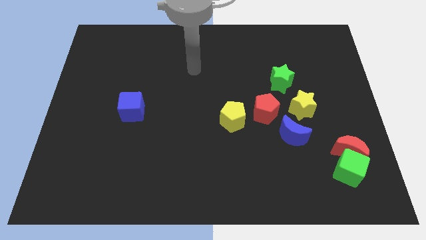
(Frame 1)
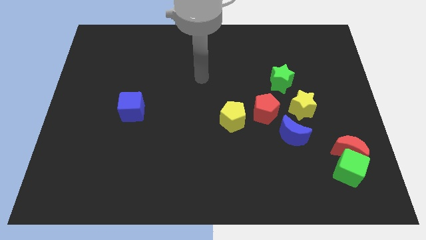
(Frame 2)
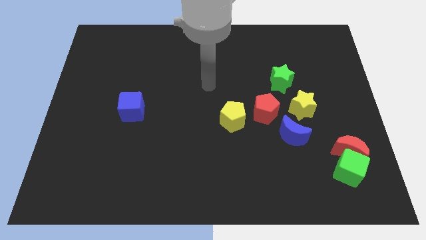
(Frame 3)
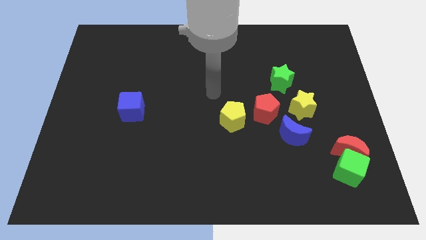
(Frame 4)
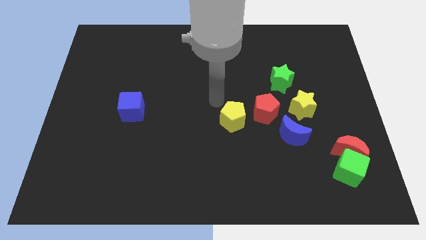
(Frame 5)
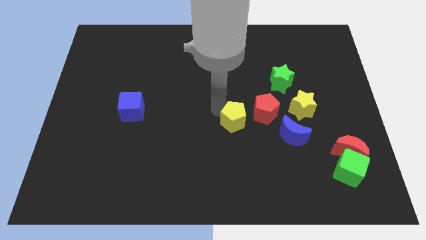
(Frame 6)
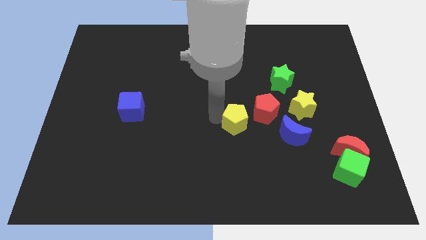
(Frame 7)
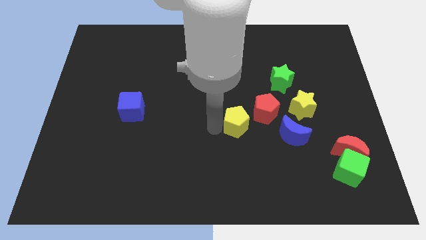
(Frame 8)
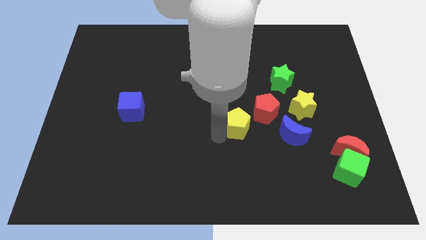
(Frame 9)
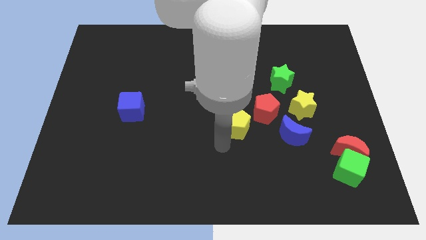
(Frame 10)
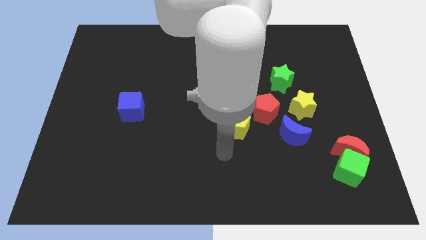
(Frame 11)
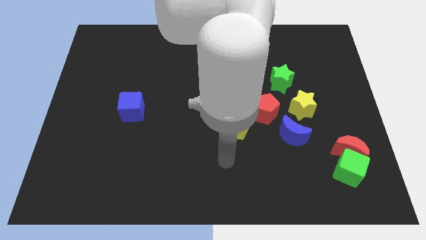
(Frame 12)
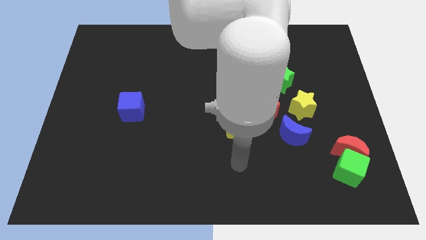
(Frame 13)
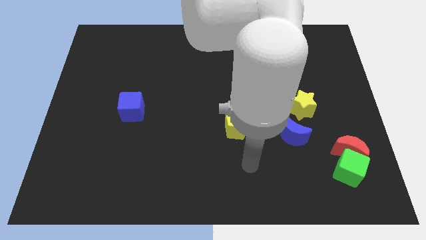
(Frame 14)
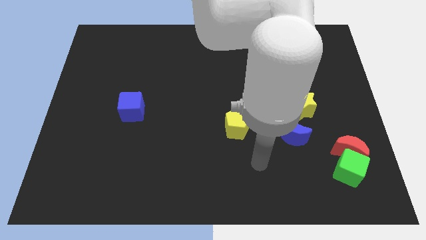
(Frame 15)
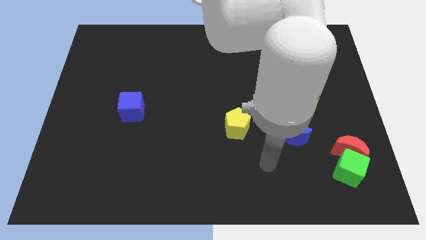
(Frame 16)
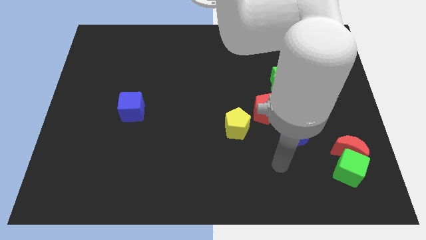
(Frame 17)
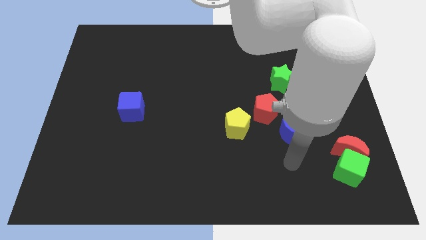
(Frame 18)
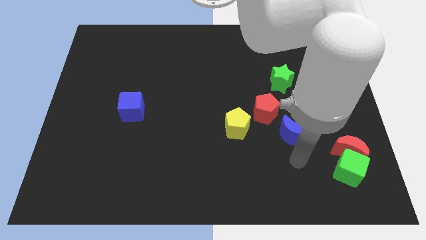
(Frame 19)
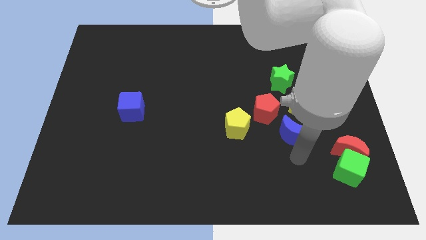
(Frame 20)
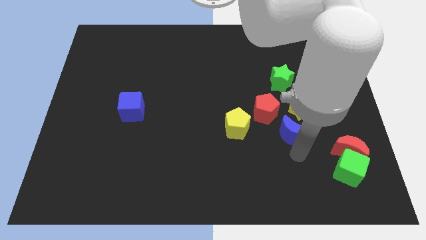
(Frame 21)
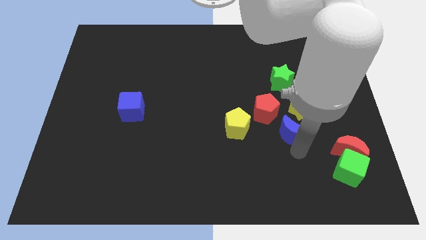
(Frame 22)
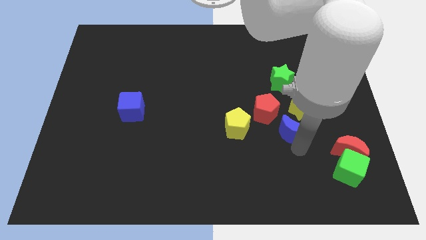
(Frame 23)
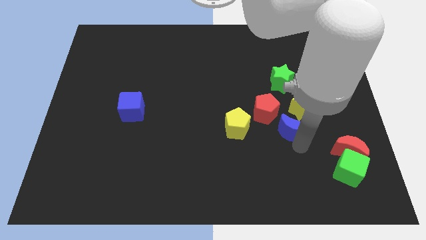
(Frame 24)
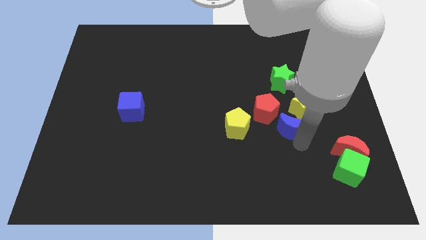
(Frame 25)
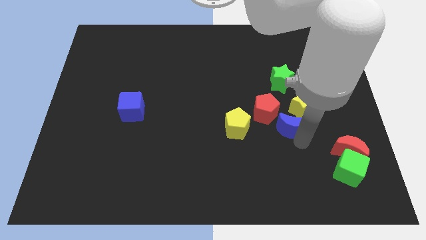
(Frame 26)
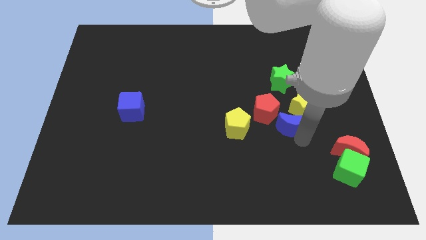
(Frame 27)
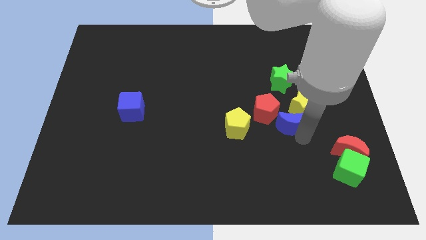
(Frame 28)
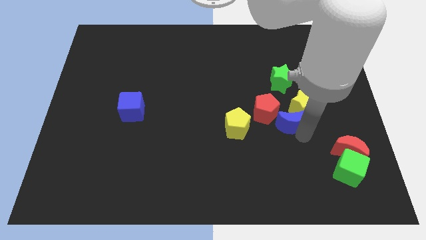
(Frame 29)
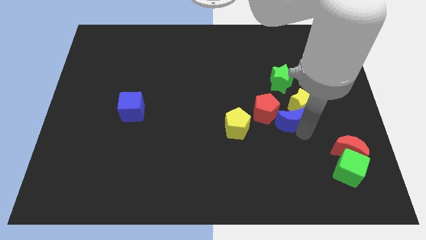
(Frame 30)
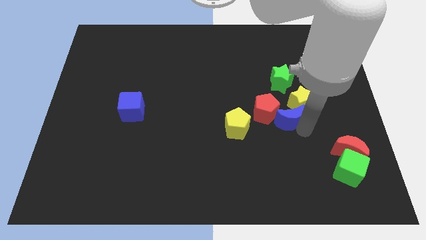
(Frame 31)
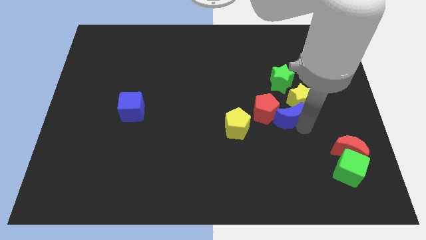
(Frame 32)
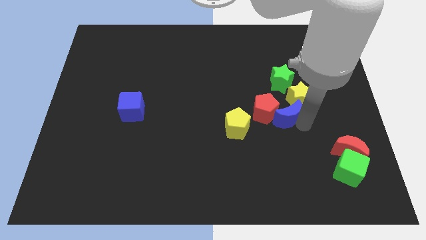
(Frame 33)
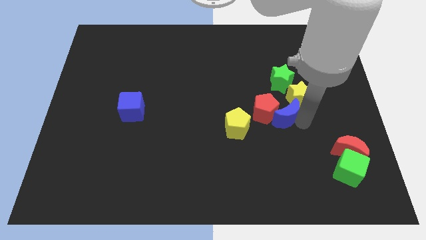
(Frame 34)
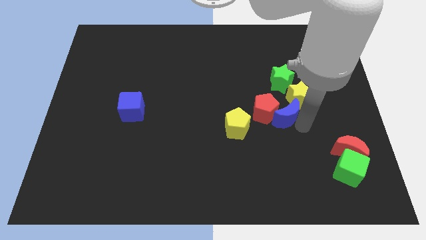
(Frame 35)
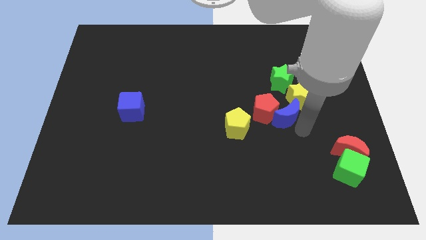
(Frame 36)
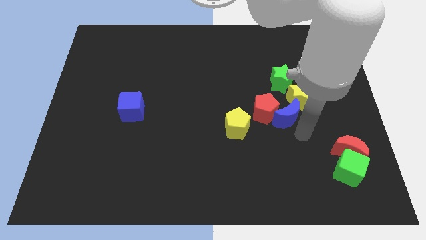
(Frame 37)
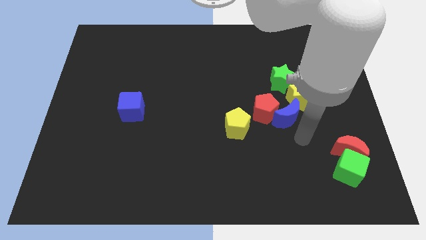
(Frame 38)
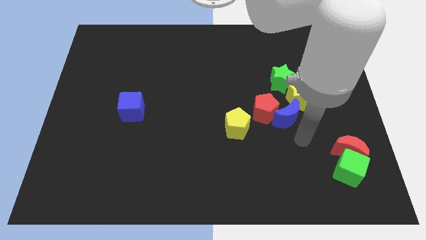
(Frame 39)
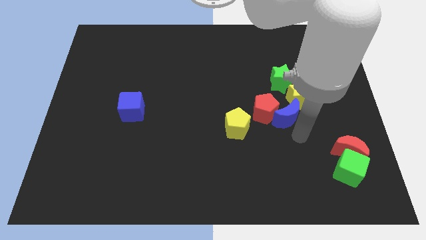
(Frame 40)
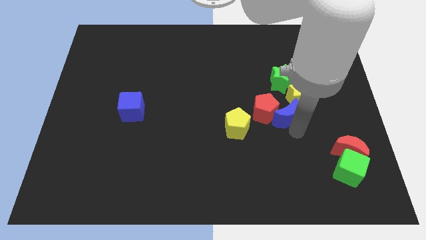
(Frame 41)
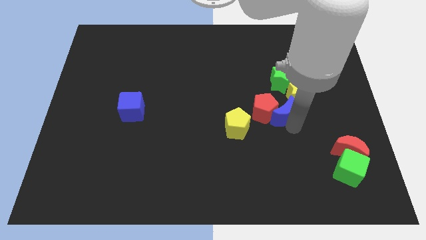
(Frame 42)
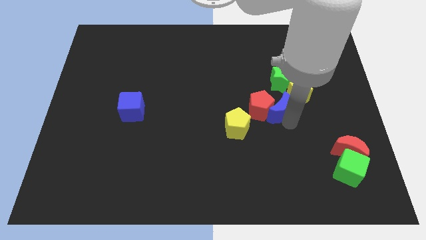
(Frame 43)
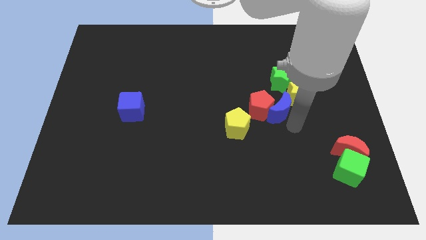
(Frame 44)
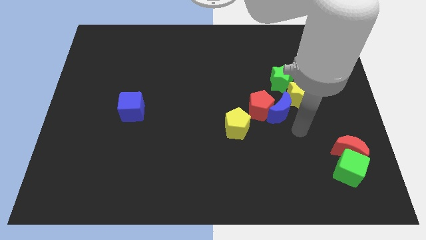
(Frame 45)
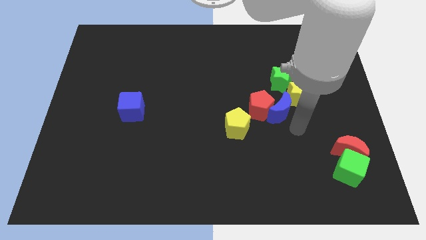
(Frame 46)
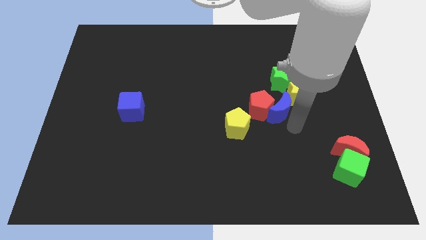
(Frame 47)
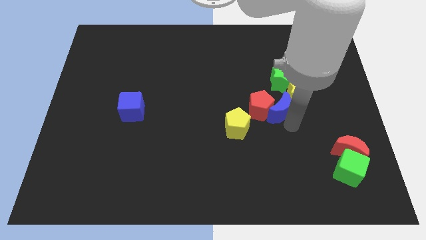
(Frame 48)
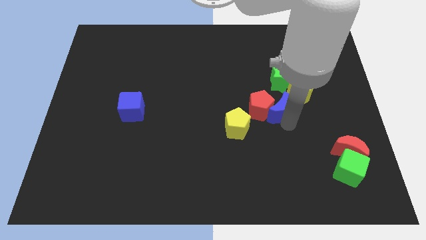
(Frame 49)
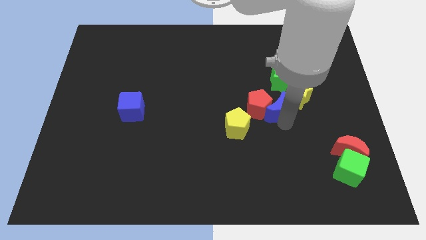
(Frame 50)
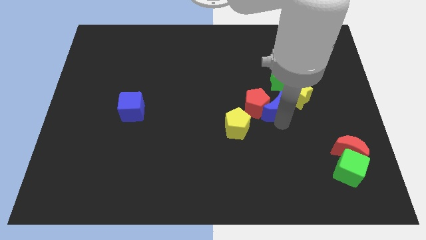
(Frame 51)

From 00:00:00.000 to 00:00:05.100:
slightly move the blue moon upwards and left diagonally

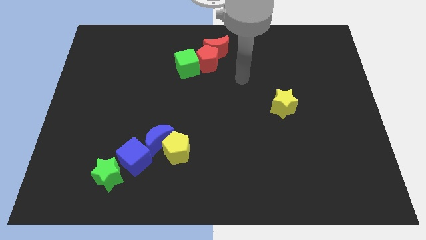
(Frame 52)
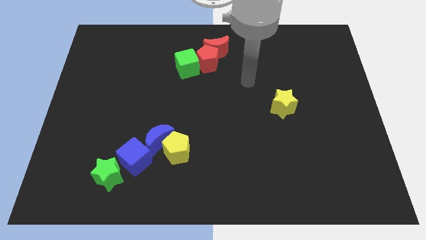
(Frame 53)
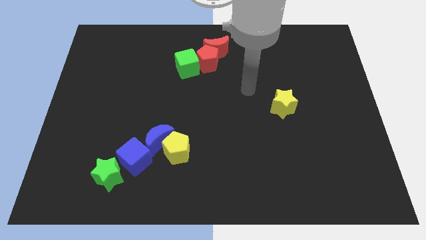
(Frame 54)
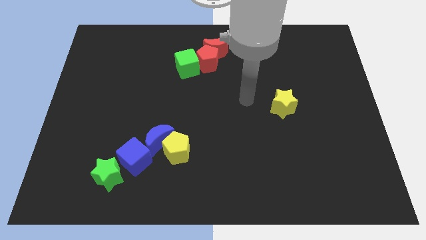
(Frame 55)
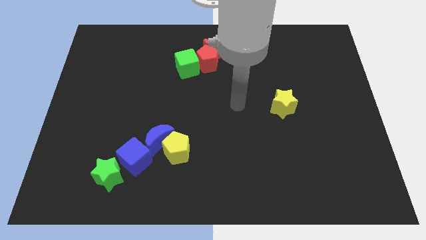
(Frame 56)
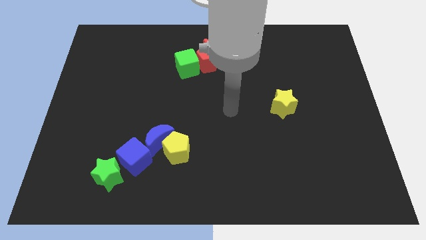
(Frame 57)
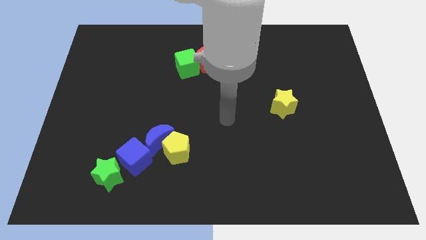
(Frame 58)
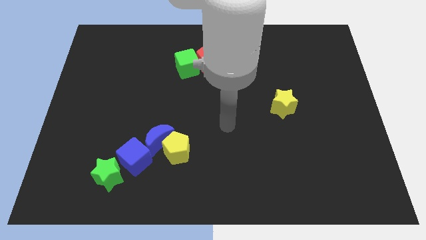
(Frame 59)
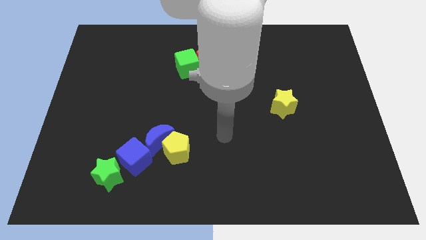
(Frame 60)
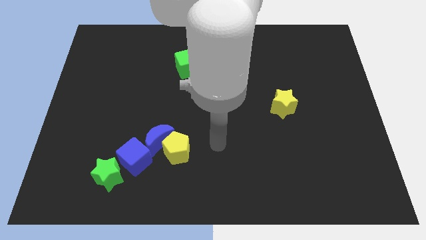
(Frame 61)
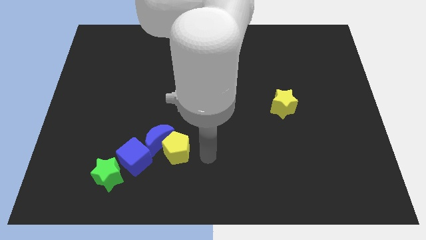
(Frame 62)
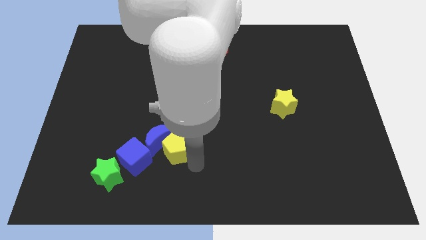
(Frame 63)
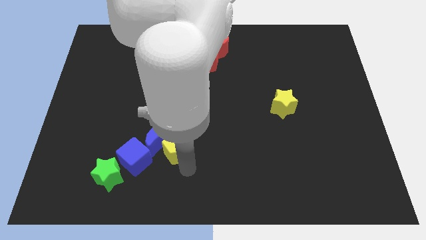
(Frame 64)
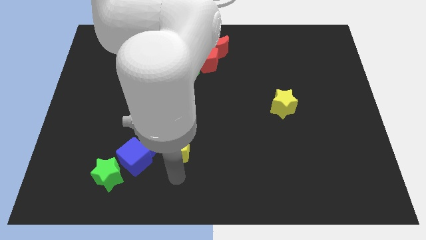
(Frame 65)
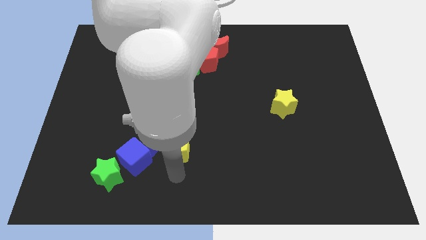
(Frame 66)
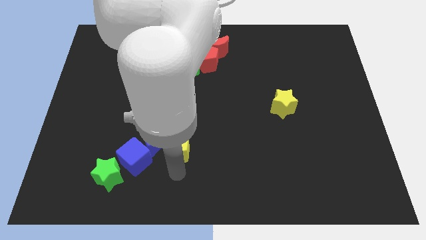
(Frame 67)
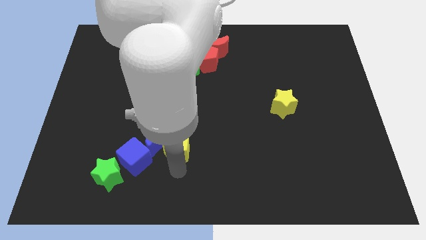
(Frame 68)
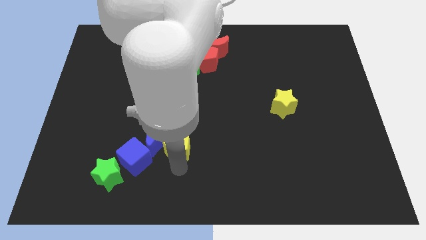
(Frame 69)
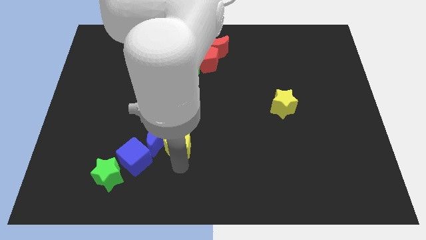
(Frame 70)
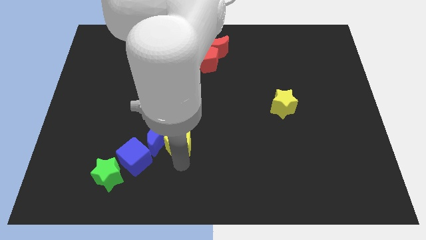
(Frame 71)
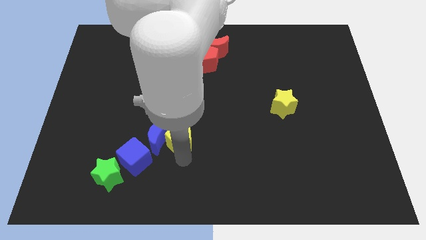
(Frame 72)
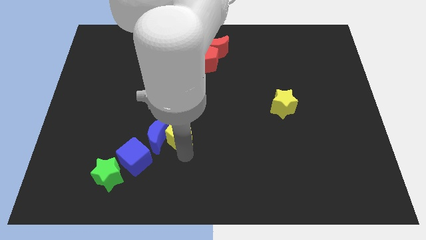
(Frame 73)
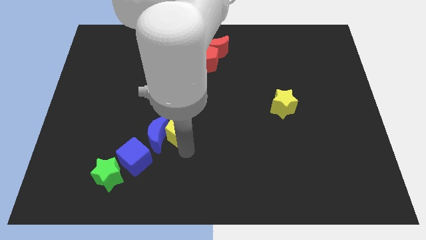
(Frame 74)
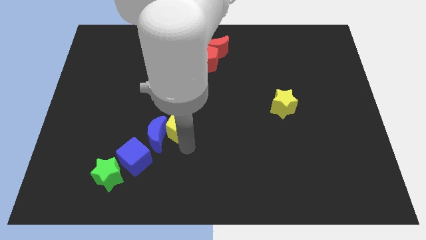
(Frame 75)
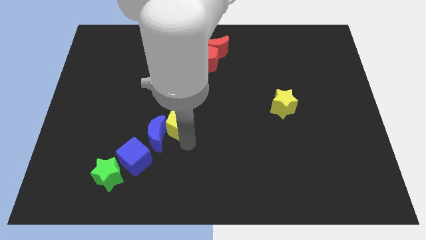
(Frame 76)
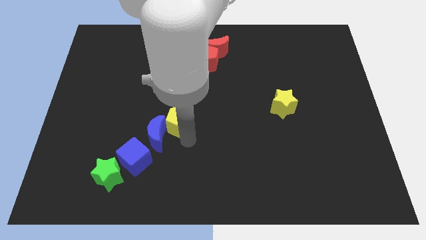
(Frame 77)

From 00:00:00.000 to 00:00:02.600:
slide the yellow pentagon up a little bit
